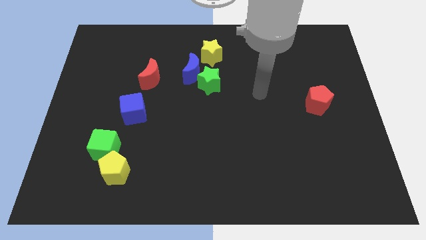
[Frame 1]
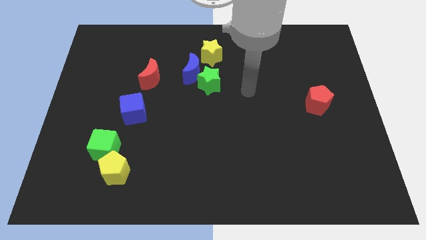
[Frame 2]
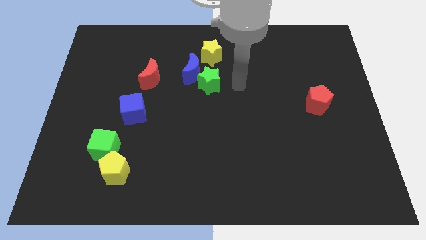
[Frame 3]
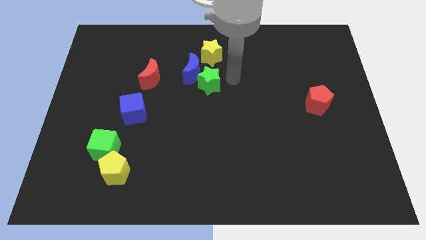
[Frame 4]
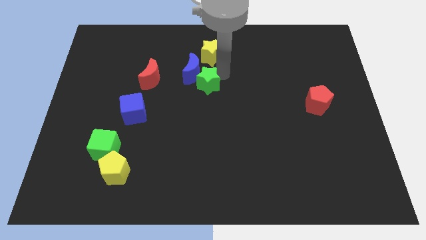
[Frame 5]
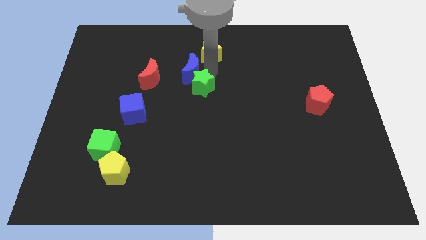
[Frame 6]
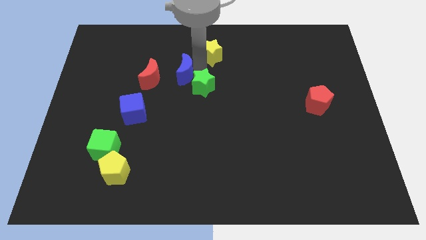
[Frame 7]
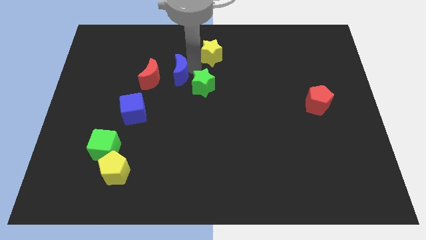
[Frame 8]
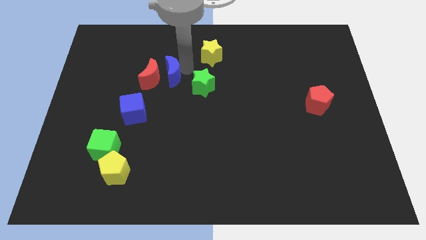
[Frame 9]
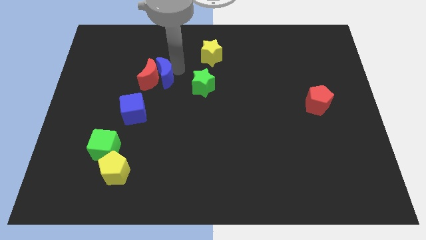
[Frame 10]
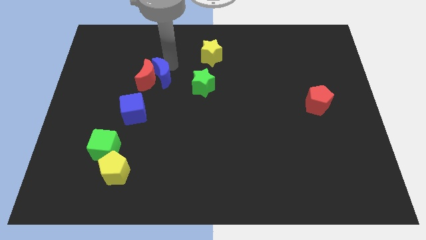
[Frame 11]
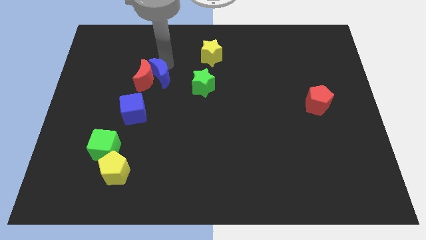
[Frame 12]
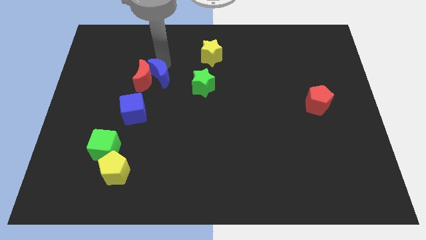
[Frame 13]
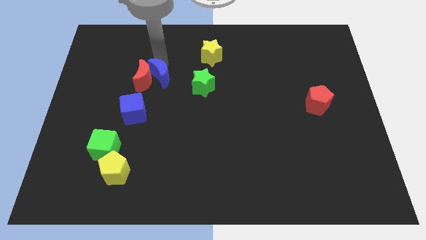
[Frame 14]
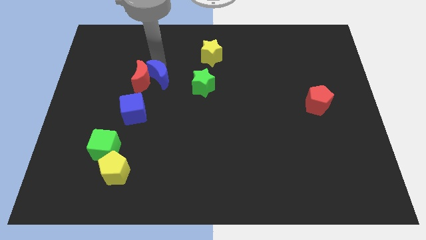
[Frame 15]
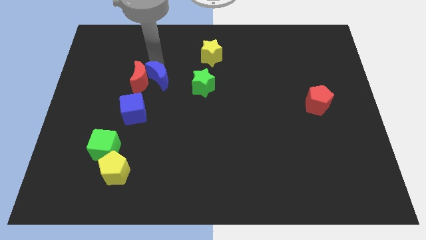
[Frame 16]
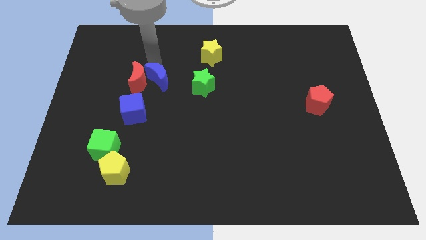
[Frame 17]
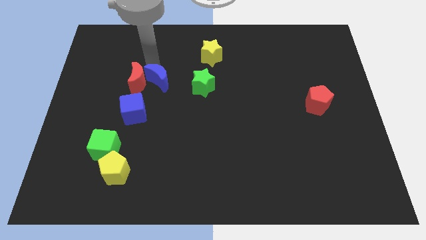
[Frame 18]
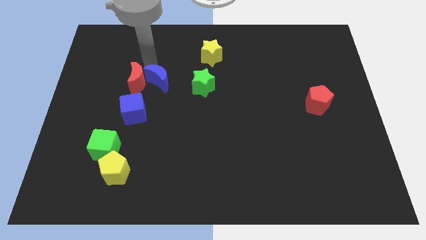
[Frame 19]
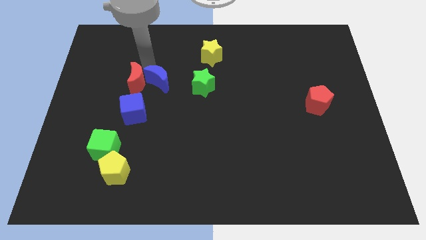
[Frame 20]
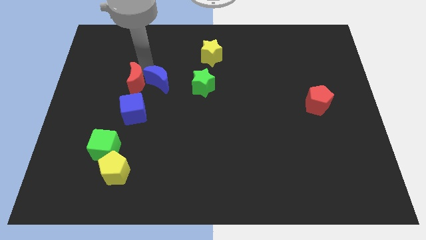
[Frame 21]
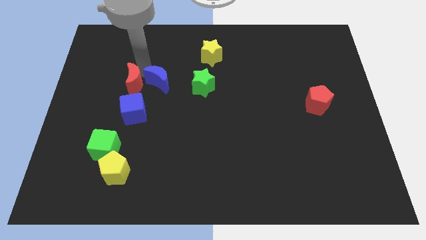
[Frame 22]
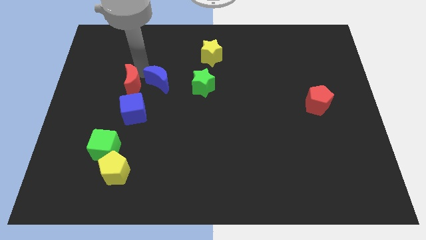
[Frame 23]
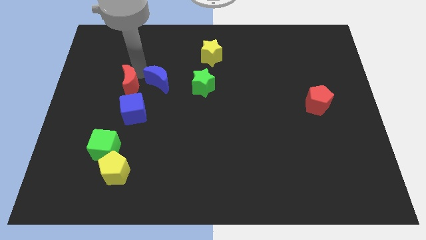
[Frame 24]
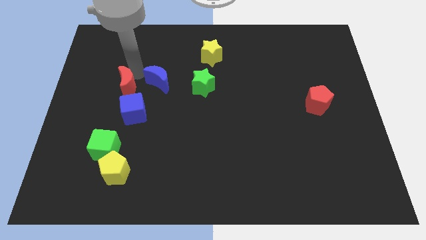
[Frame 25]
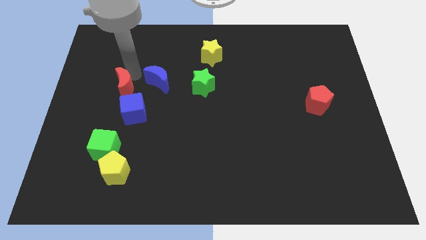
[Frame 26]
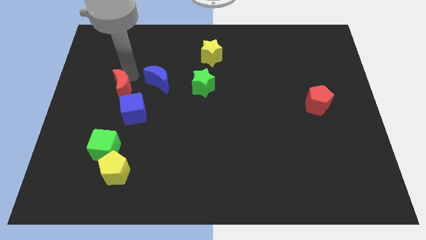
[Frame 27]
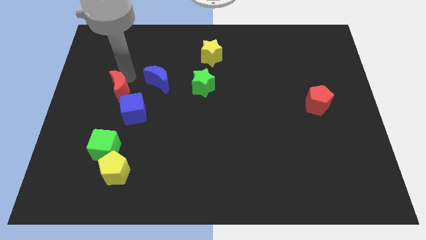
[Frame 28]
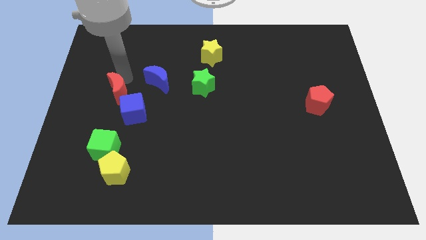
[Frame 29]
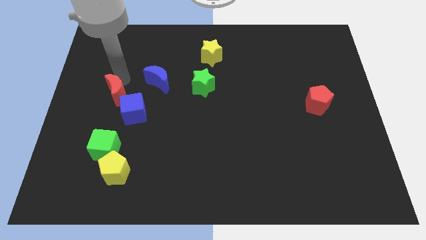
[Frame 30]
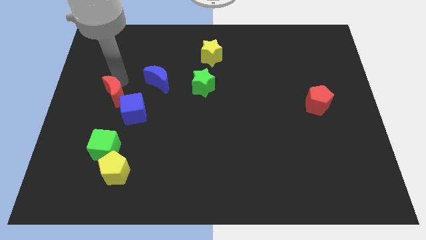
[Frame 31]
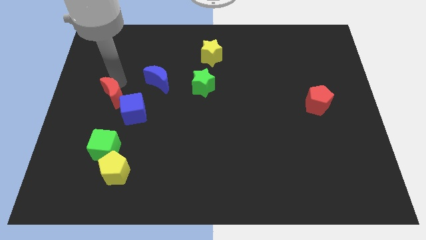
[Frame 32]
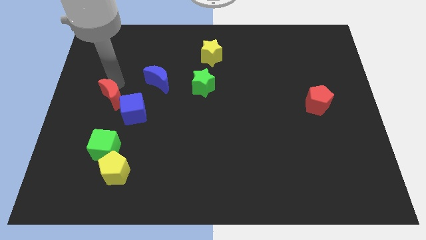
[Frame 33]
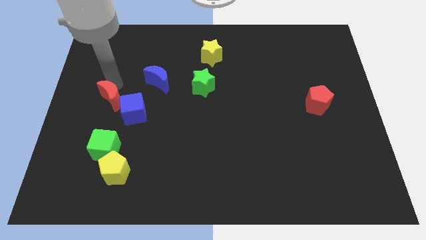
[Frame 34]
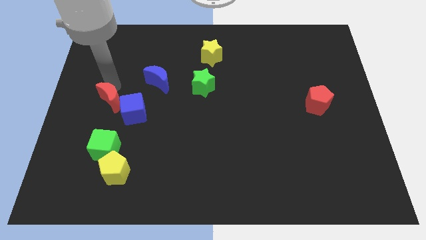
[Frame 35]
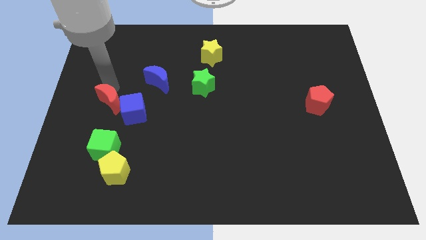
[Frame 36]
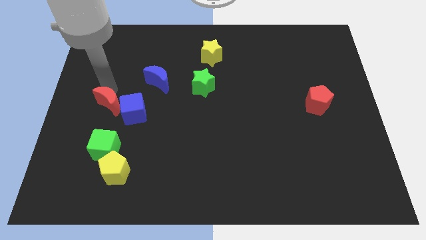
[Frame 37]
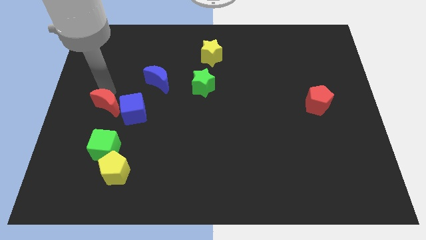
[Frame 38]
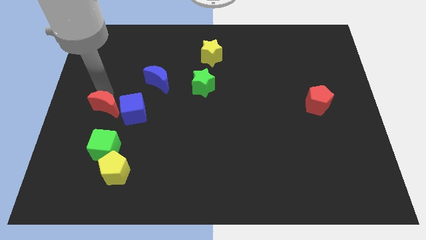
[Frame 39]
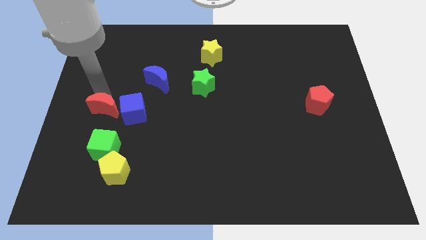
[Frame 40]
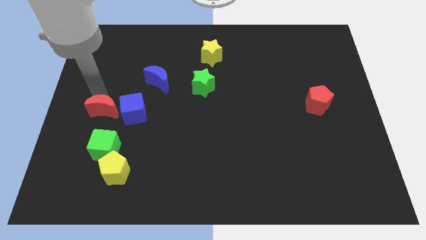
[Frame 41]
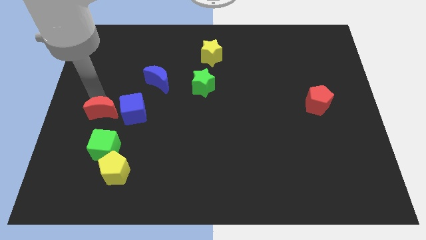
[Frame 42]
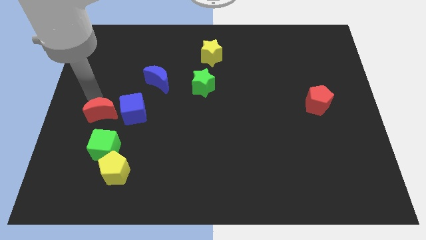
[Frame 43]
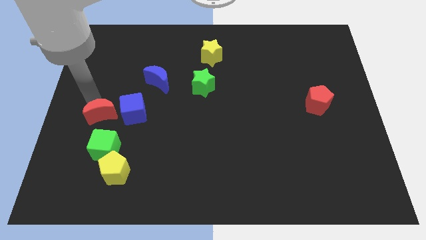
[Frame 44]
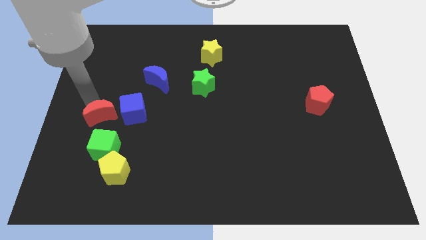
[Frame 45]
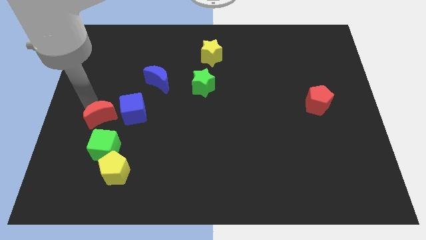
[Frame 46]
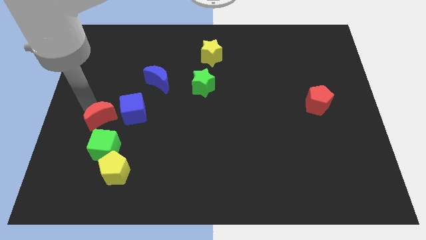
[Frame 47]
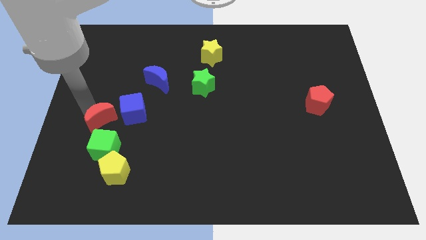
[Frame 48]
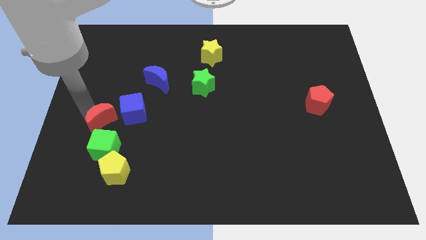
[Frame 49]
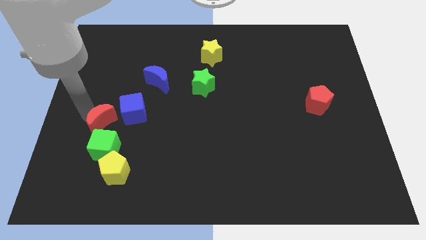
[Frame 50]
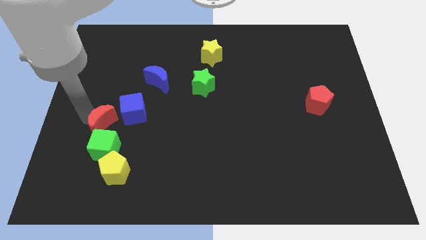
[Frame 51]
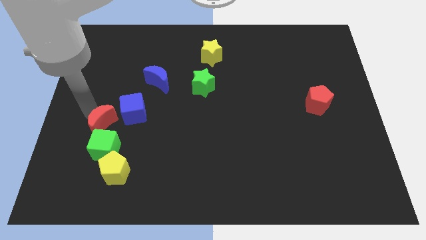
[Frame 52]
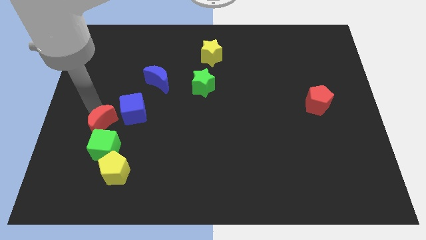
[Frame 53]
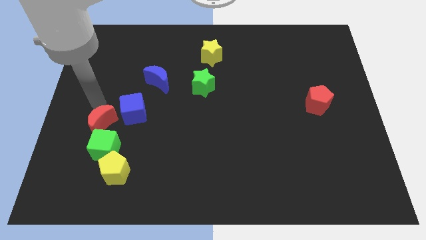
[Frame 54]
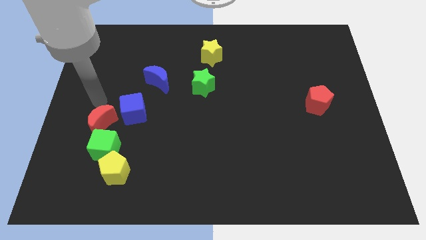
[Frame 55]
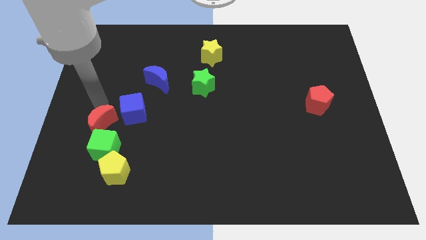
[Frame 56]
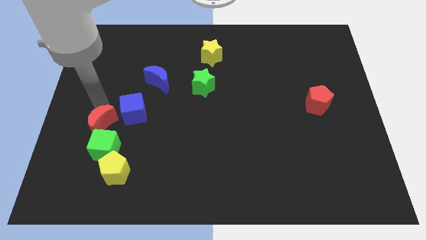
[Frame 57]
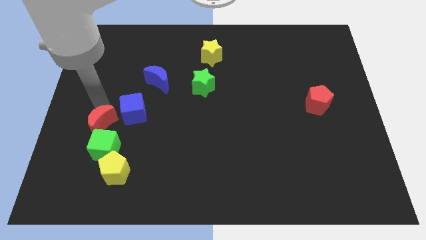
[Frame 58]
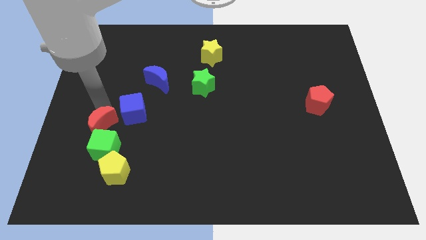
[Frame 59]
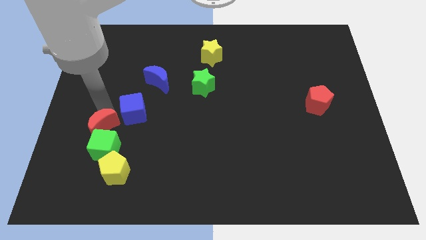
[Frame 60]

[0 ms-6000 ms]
slide the red moon towards the green cube

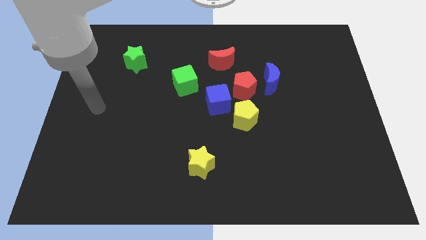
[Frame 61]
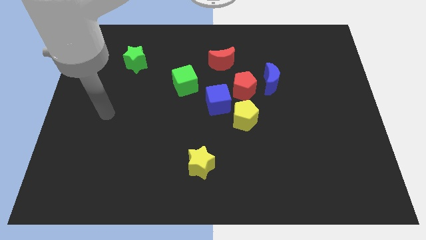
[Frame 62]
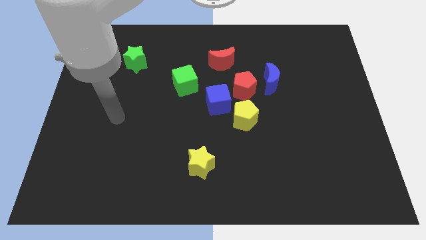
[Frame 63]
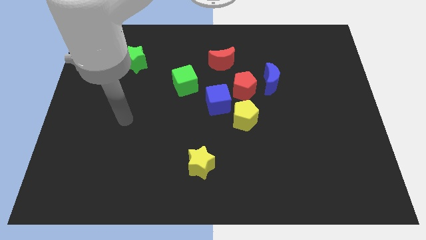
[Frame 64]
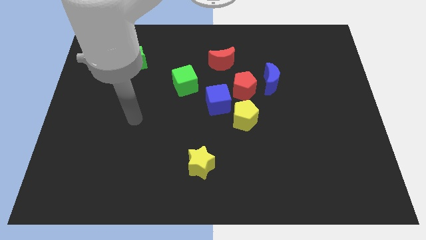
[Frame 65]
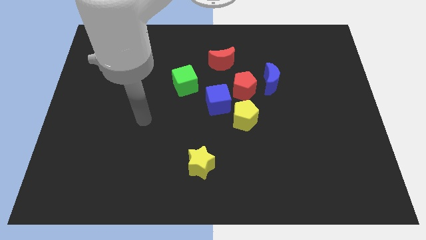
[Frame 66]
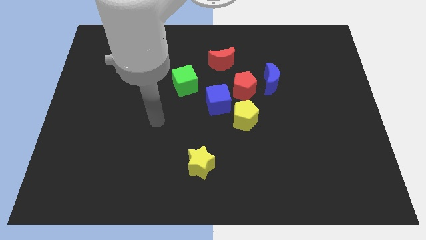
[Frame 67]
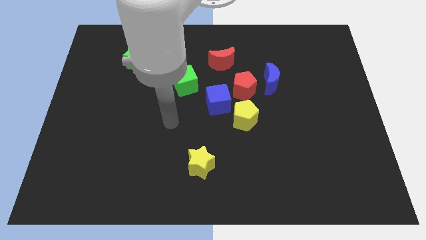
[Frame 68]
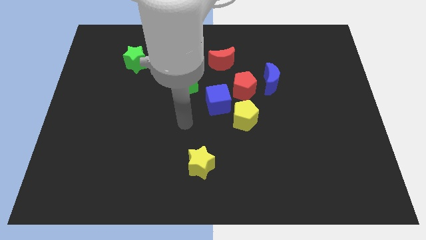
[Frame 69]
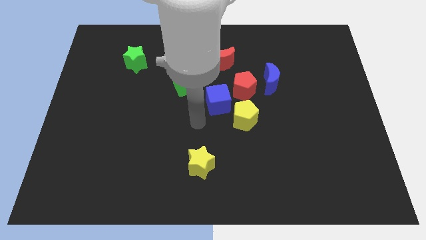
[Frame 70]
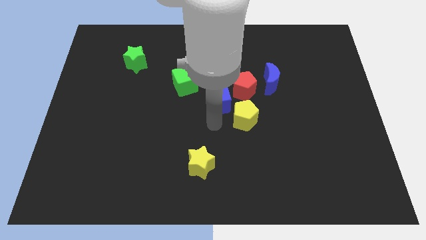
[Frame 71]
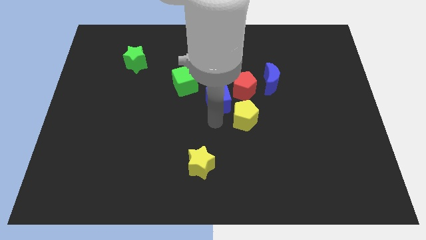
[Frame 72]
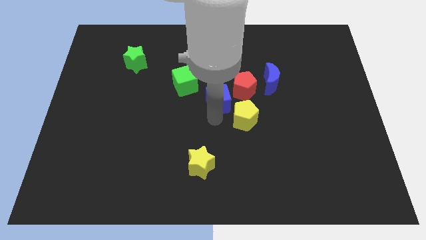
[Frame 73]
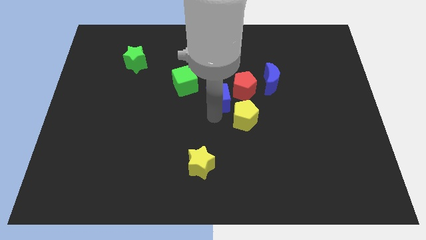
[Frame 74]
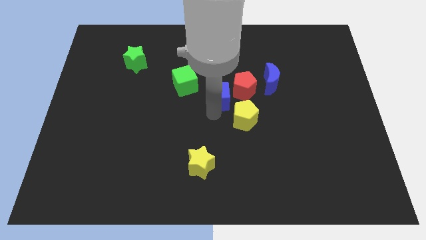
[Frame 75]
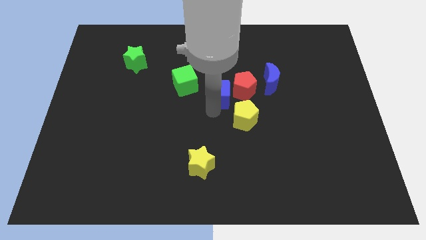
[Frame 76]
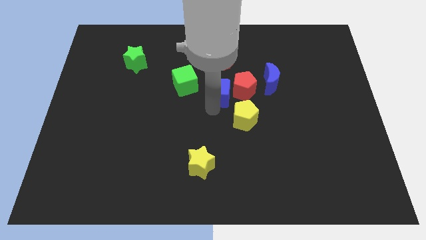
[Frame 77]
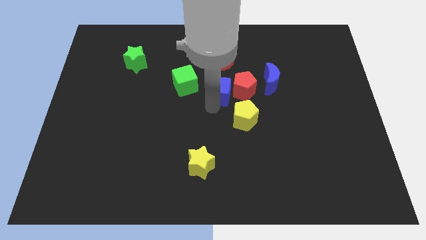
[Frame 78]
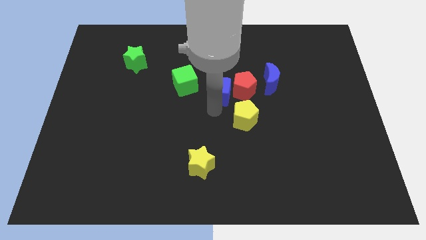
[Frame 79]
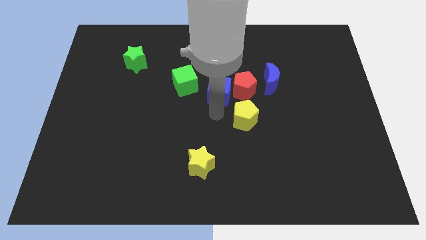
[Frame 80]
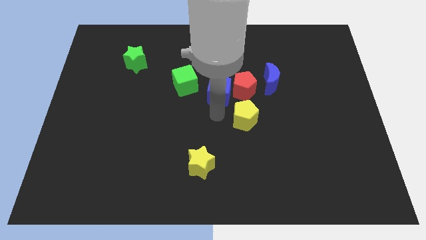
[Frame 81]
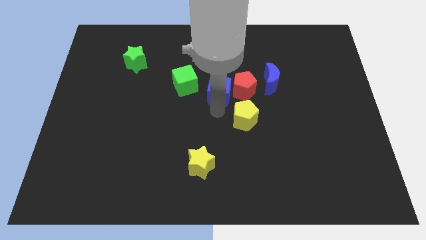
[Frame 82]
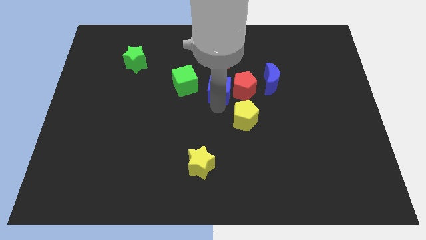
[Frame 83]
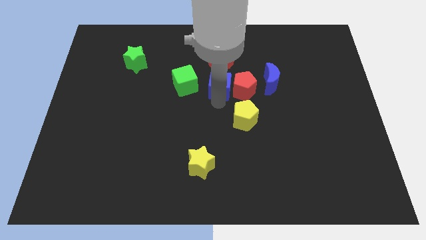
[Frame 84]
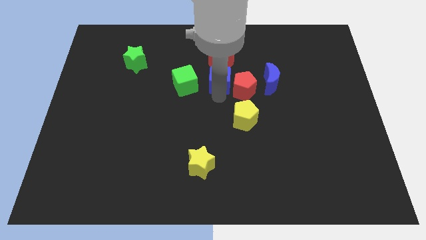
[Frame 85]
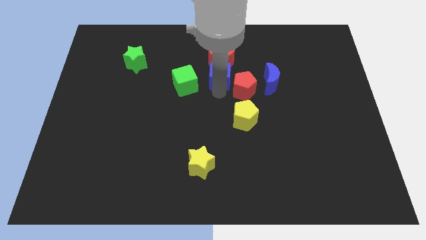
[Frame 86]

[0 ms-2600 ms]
slide the blue cube close to the red moon
